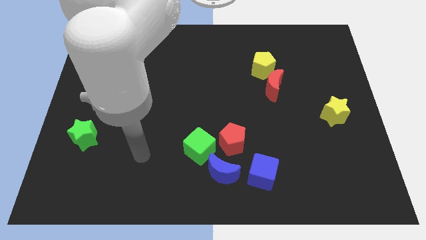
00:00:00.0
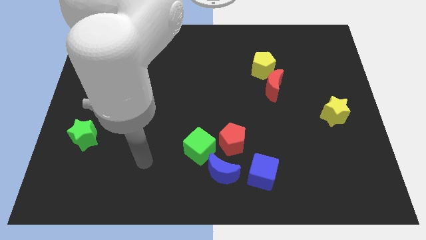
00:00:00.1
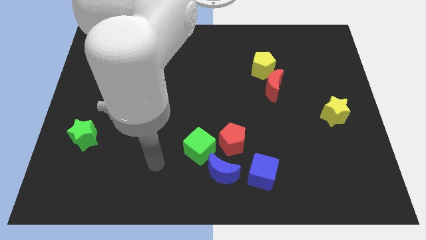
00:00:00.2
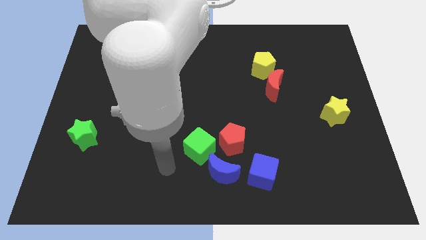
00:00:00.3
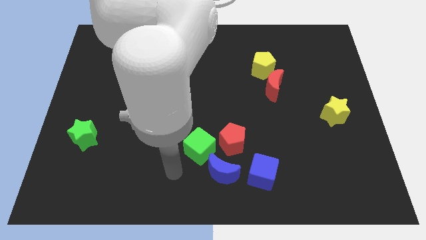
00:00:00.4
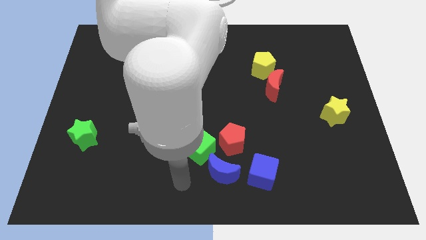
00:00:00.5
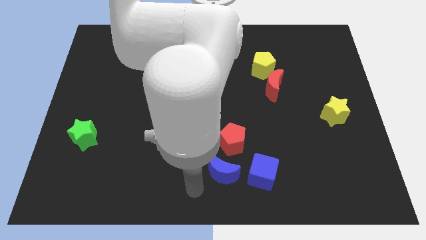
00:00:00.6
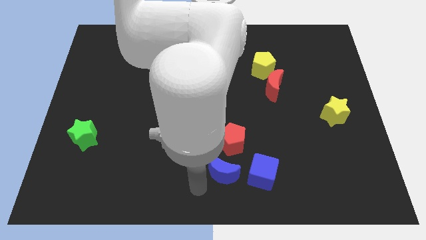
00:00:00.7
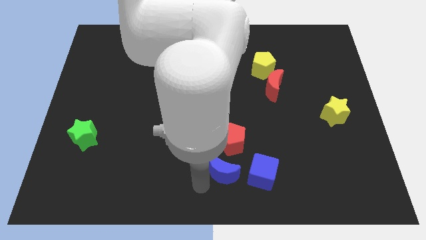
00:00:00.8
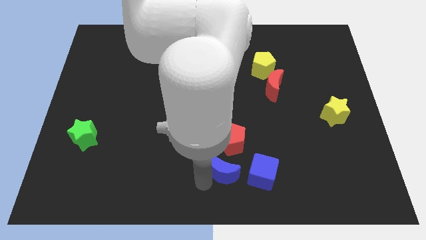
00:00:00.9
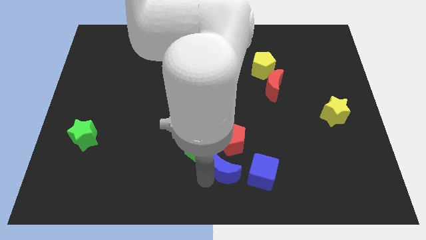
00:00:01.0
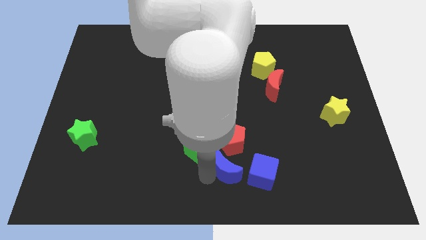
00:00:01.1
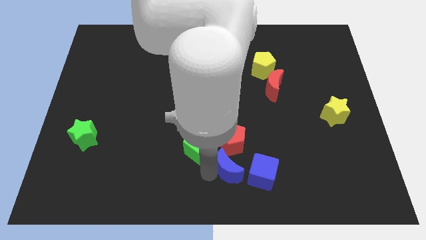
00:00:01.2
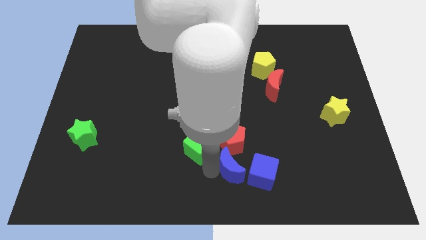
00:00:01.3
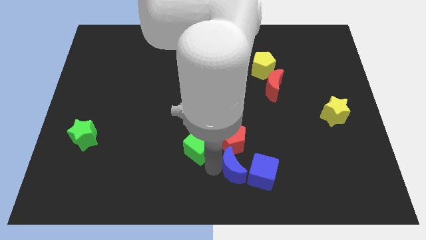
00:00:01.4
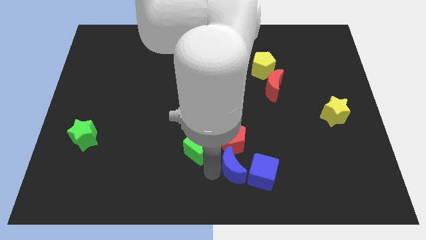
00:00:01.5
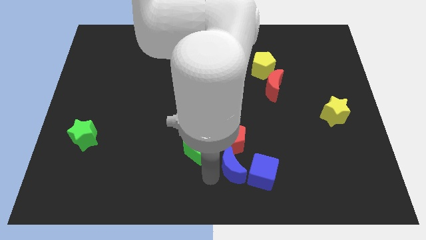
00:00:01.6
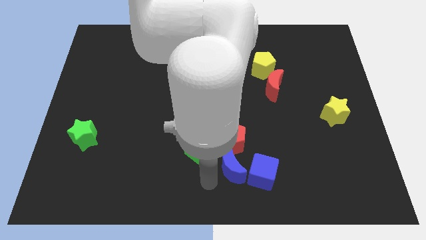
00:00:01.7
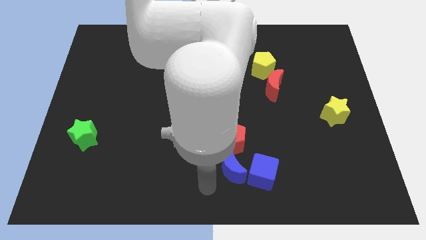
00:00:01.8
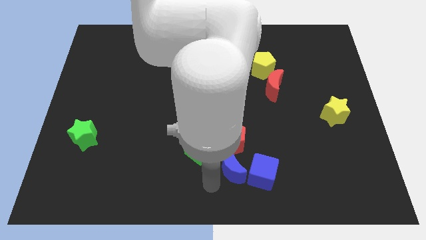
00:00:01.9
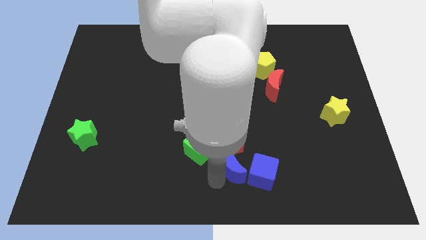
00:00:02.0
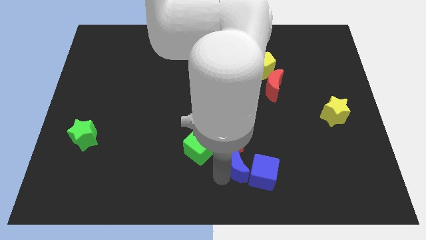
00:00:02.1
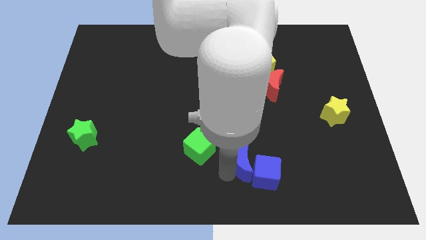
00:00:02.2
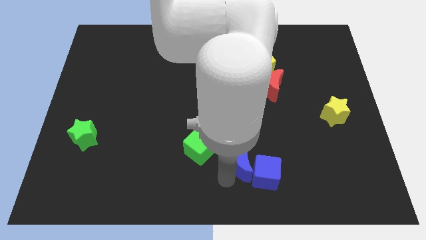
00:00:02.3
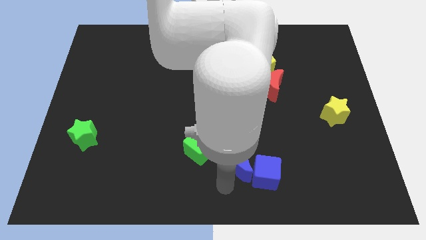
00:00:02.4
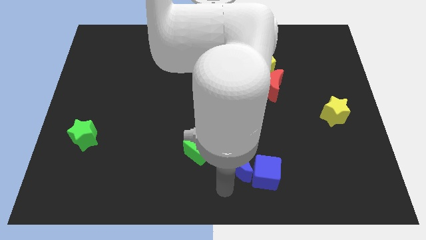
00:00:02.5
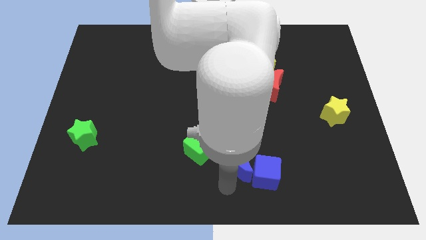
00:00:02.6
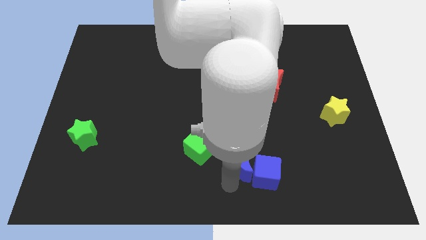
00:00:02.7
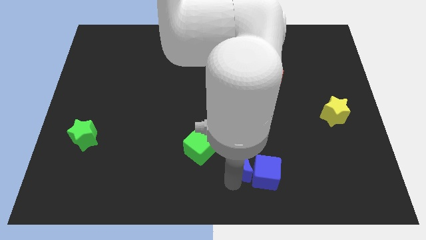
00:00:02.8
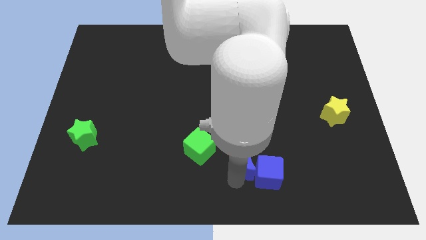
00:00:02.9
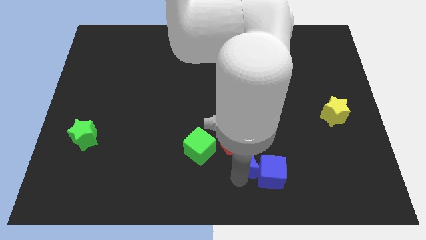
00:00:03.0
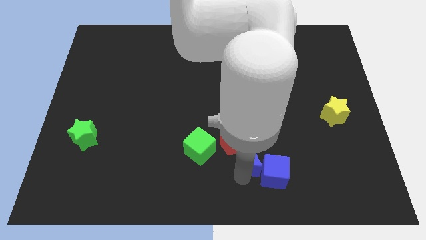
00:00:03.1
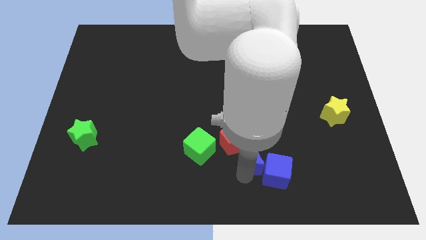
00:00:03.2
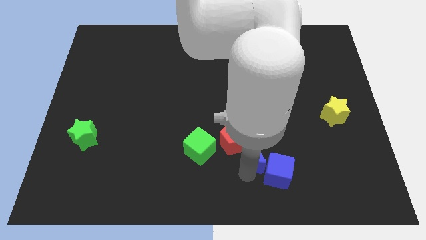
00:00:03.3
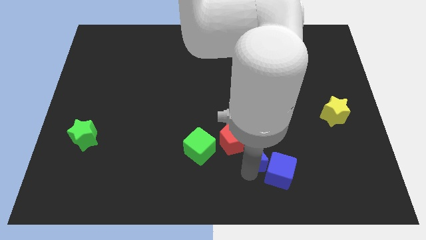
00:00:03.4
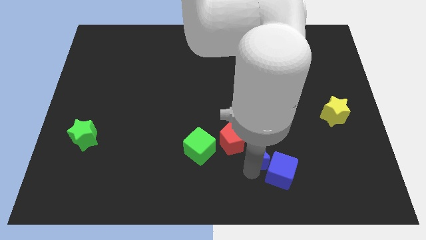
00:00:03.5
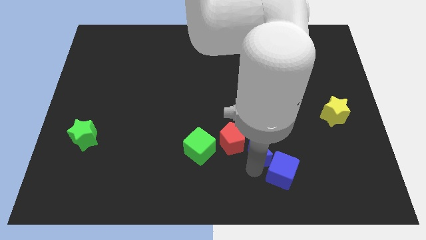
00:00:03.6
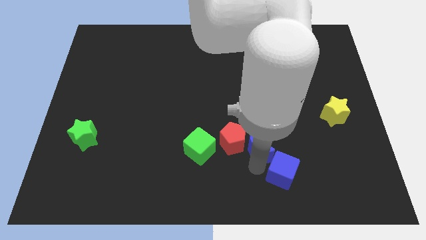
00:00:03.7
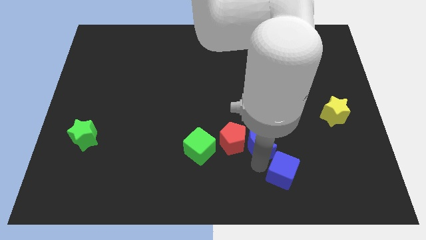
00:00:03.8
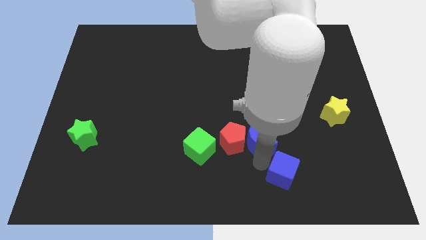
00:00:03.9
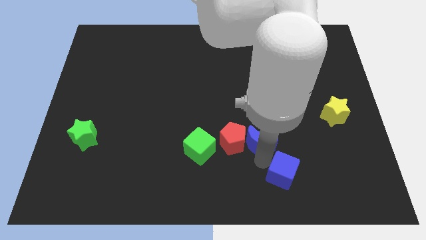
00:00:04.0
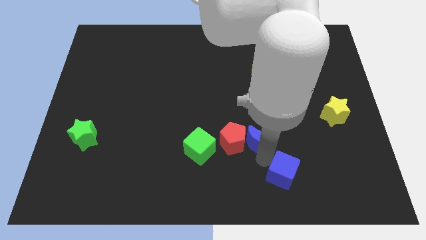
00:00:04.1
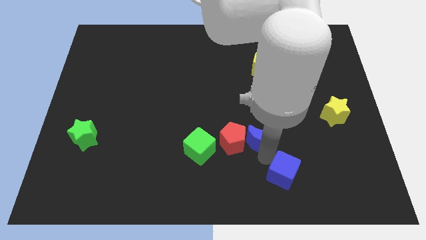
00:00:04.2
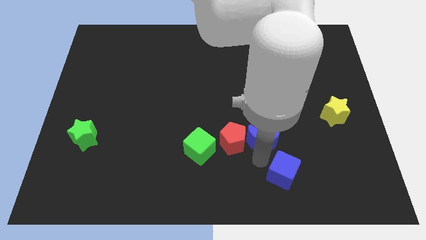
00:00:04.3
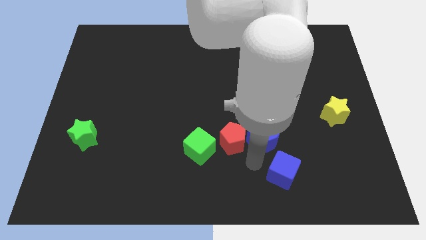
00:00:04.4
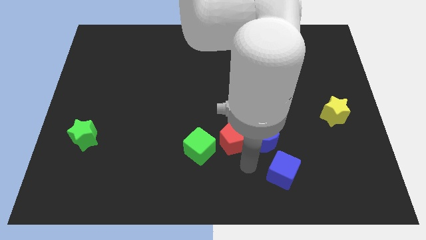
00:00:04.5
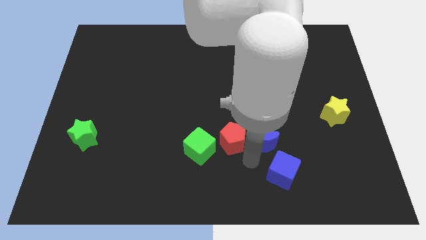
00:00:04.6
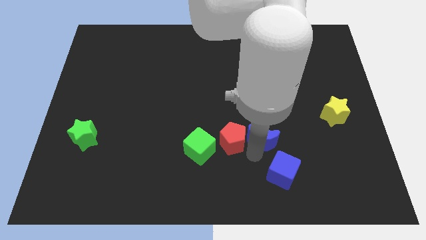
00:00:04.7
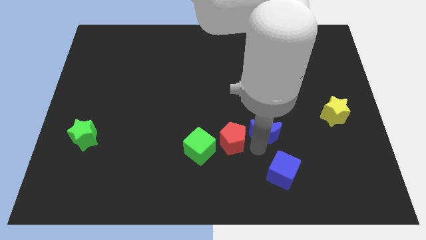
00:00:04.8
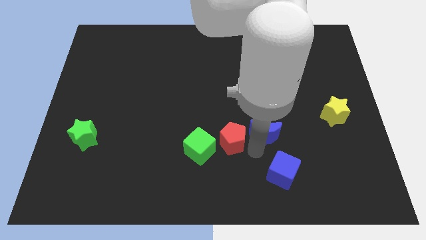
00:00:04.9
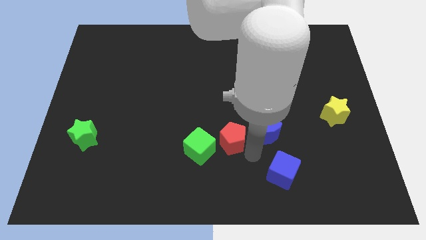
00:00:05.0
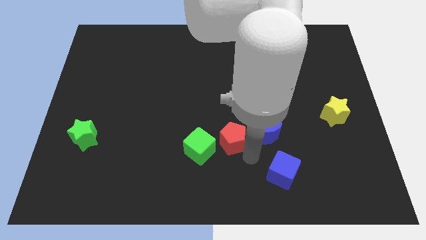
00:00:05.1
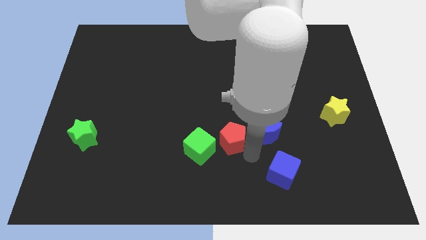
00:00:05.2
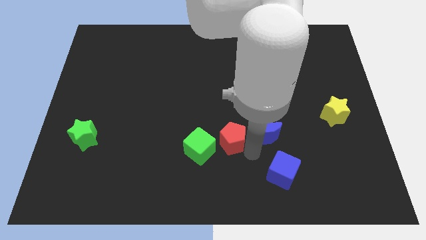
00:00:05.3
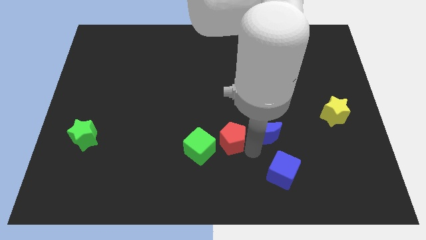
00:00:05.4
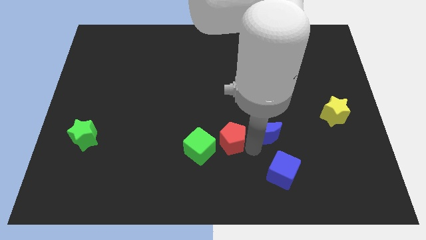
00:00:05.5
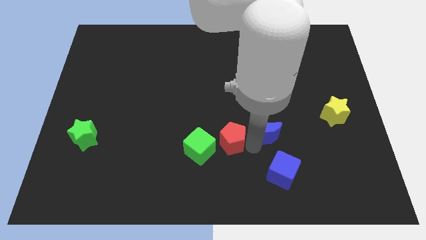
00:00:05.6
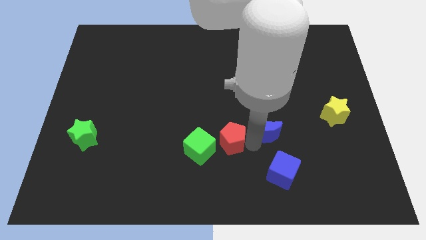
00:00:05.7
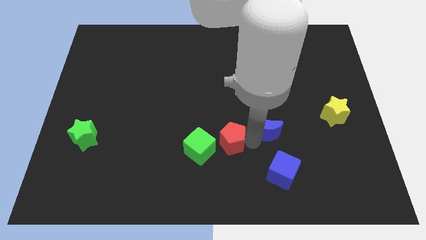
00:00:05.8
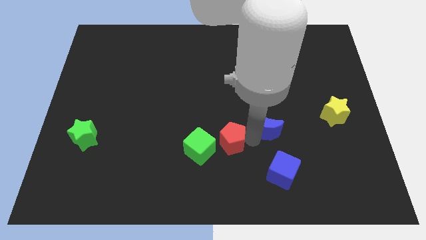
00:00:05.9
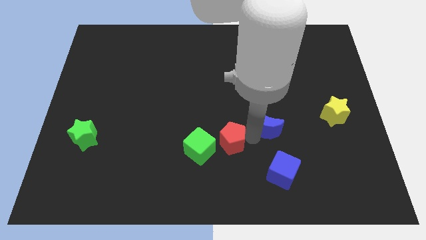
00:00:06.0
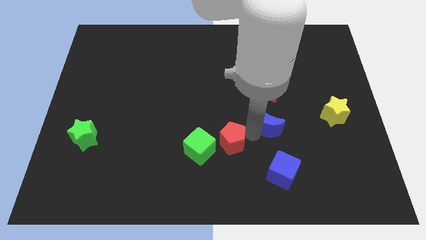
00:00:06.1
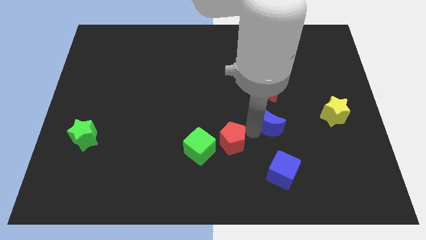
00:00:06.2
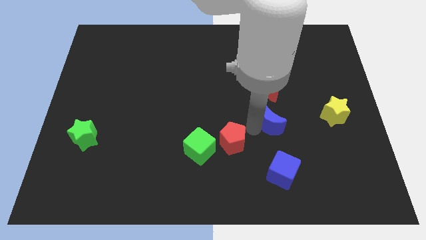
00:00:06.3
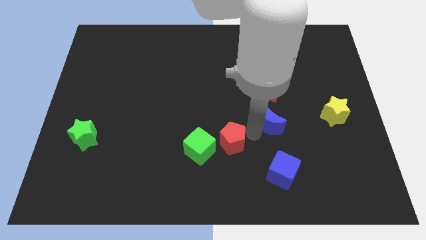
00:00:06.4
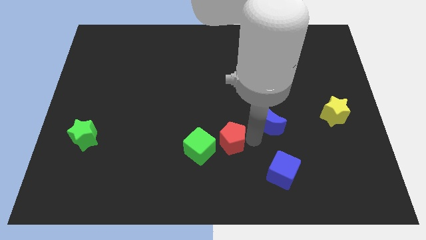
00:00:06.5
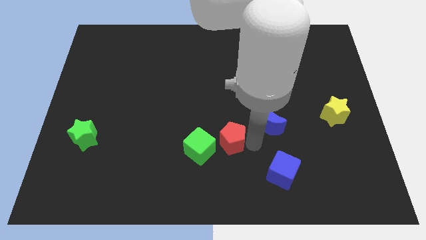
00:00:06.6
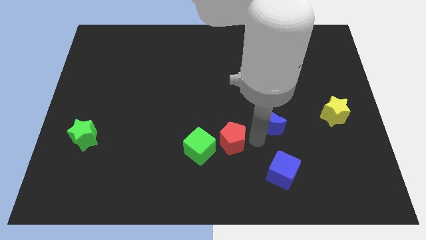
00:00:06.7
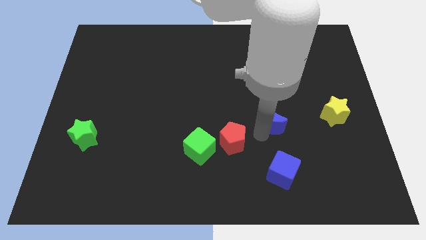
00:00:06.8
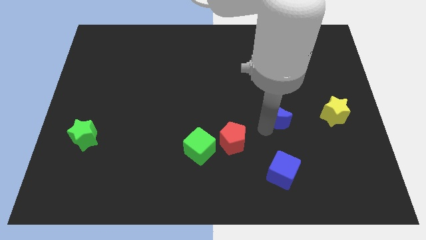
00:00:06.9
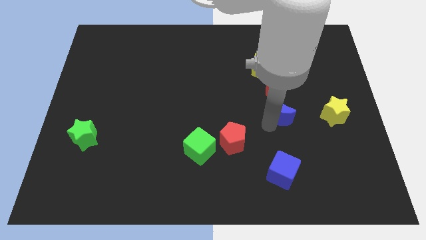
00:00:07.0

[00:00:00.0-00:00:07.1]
move the blue moon upwards and then right

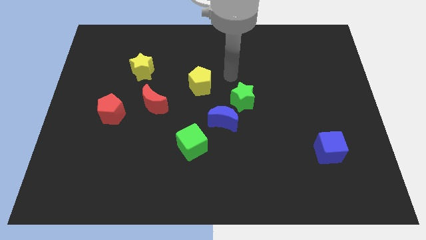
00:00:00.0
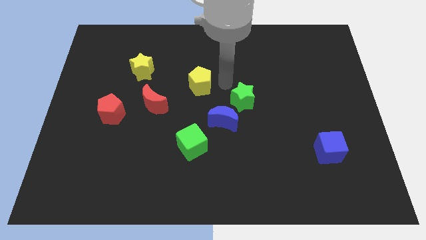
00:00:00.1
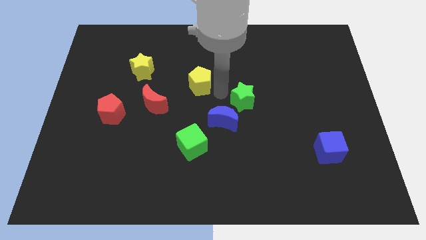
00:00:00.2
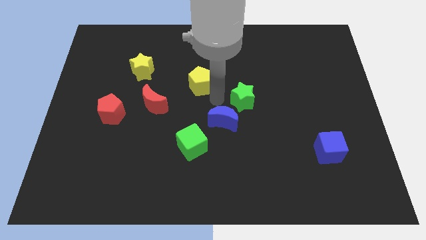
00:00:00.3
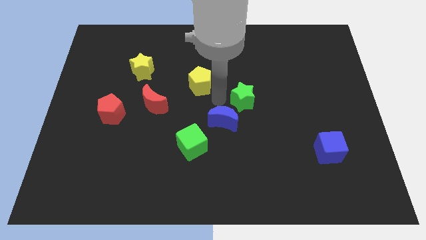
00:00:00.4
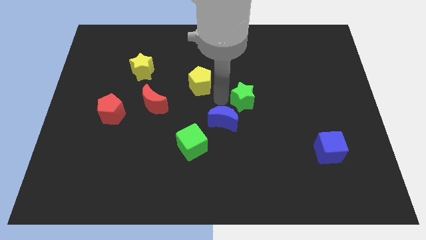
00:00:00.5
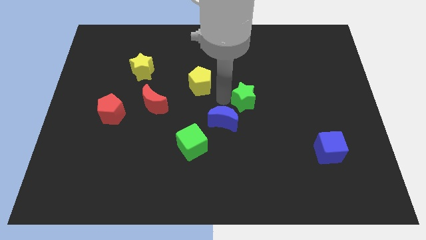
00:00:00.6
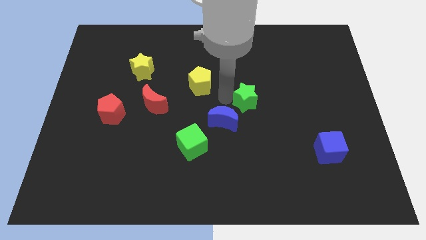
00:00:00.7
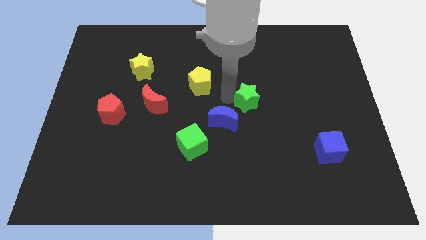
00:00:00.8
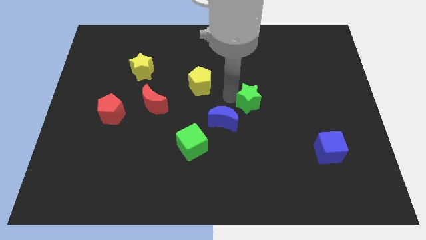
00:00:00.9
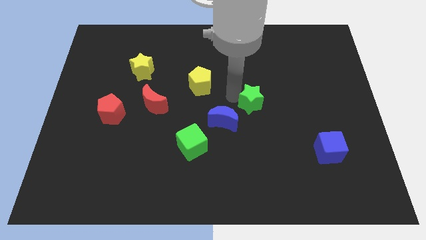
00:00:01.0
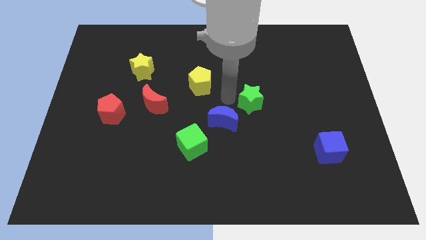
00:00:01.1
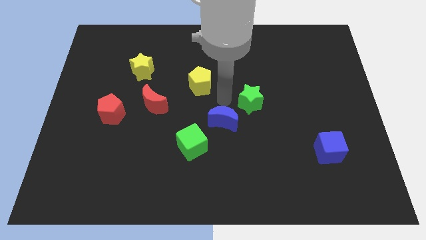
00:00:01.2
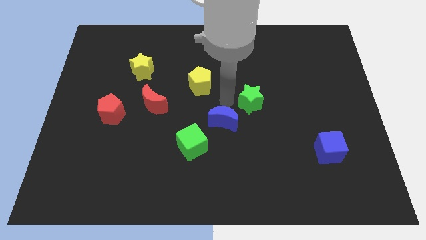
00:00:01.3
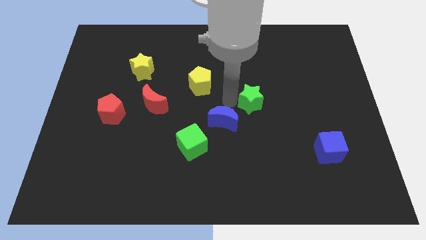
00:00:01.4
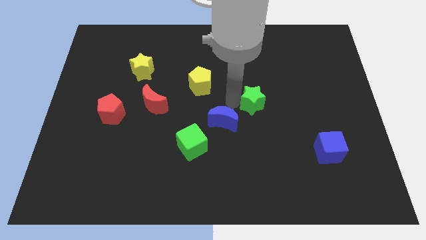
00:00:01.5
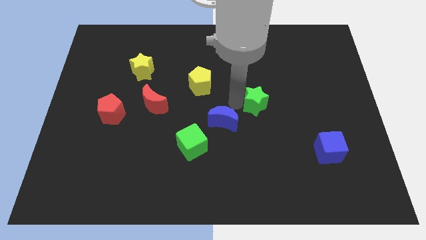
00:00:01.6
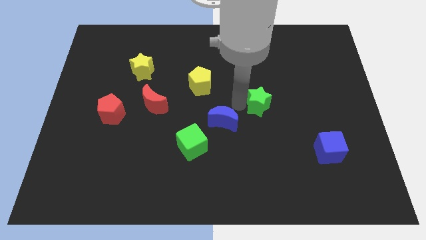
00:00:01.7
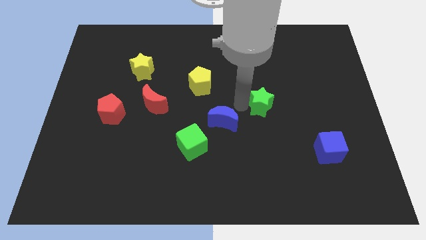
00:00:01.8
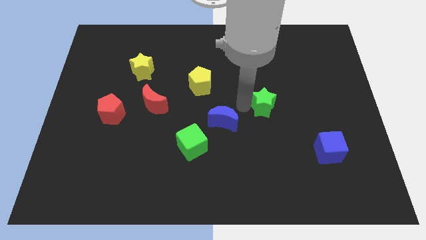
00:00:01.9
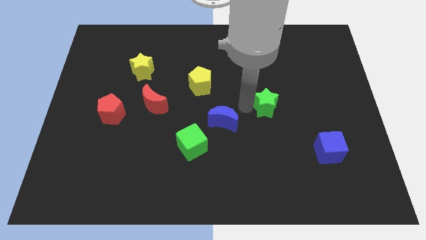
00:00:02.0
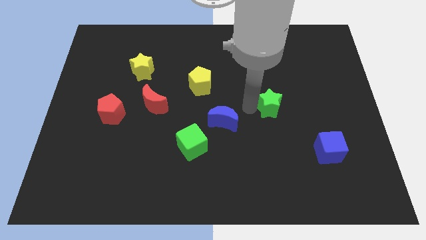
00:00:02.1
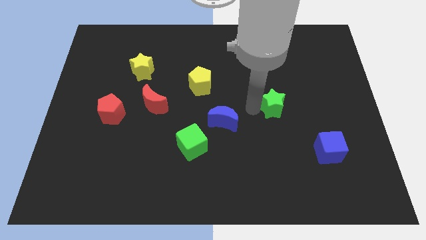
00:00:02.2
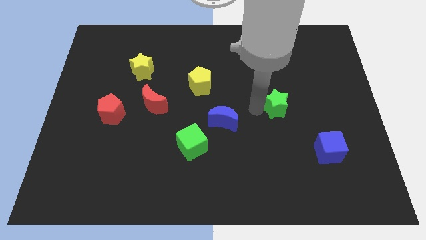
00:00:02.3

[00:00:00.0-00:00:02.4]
slightly push the green star right
